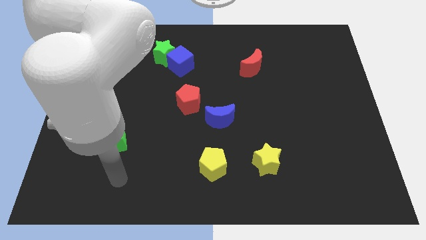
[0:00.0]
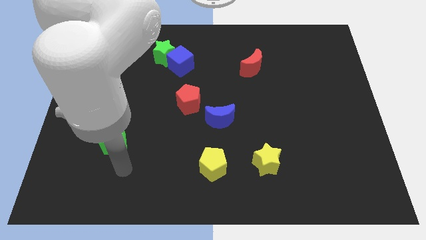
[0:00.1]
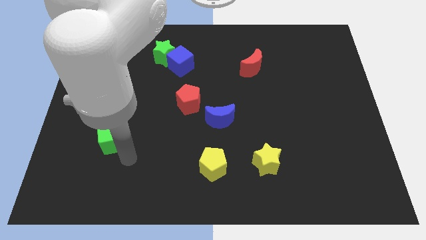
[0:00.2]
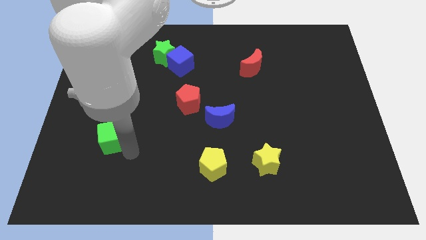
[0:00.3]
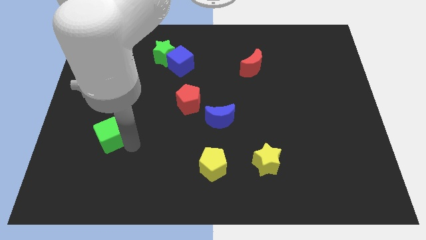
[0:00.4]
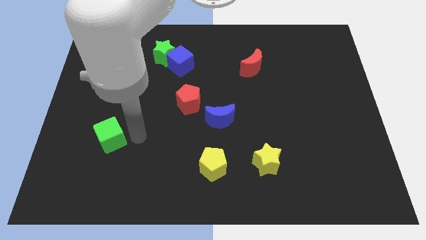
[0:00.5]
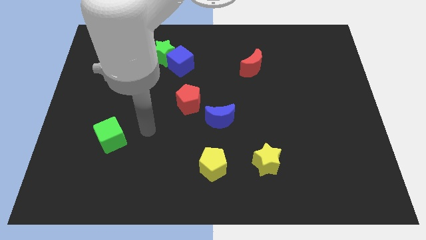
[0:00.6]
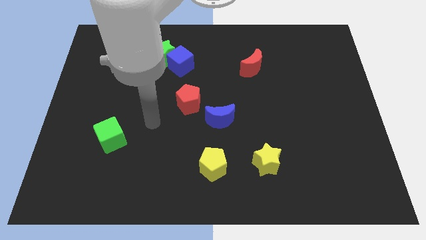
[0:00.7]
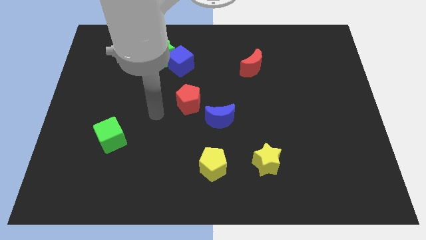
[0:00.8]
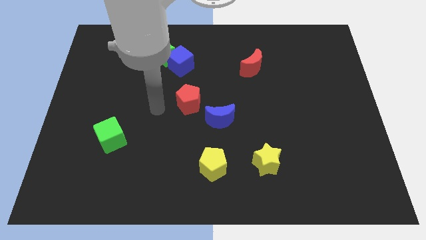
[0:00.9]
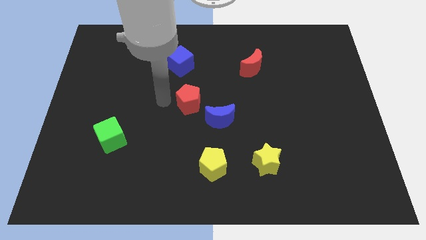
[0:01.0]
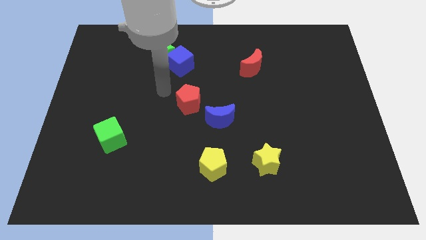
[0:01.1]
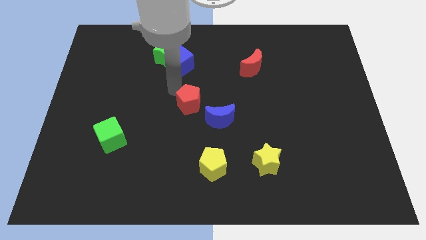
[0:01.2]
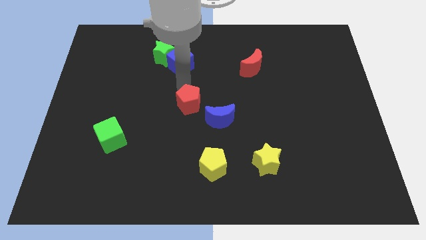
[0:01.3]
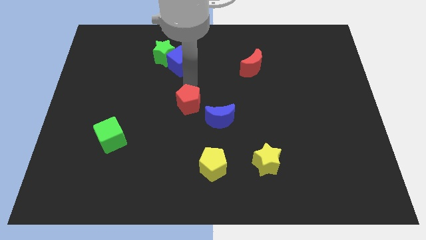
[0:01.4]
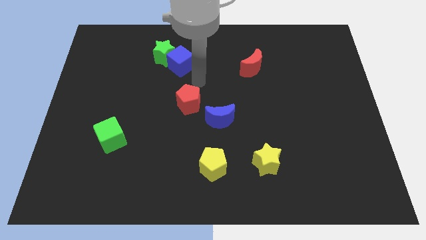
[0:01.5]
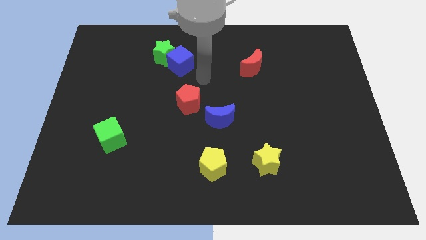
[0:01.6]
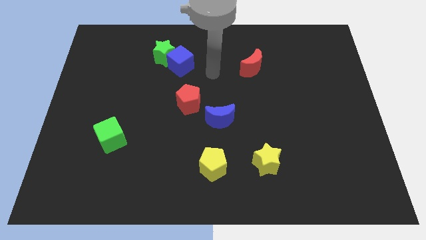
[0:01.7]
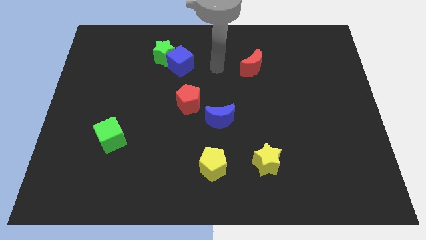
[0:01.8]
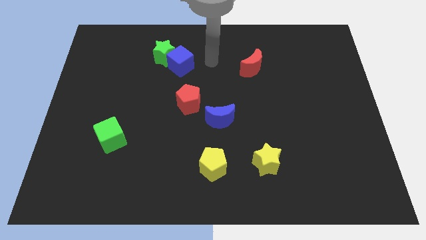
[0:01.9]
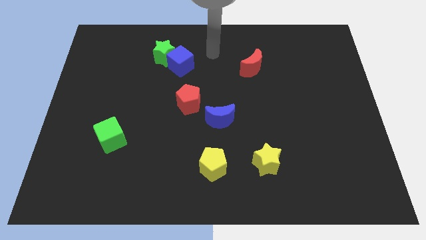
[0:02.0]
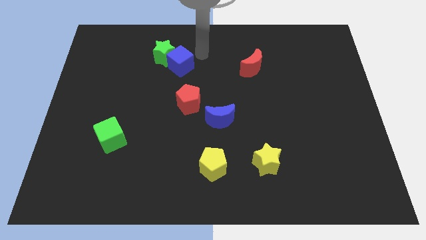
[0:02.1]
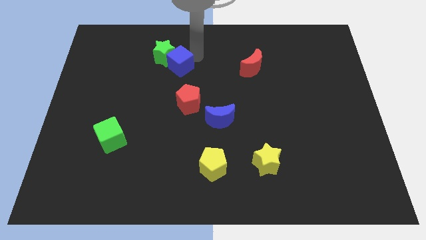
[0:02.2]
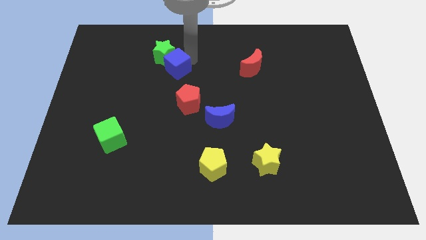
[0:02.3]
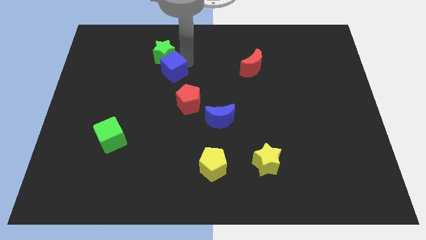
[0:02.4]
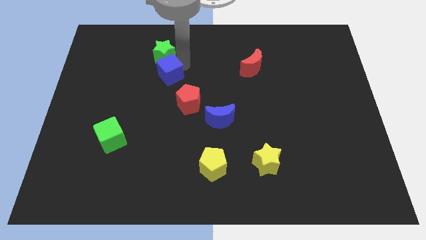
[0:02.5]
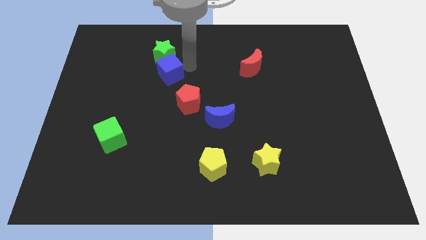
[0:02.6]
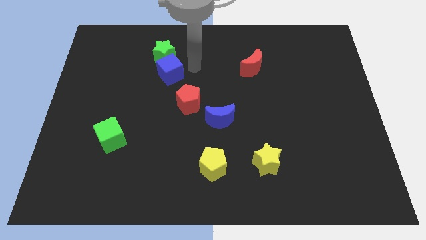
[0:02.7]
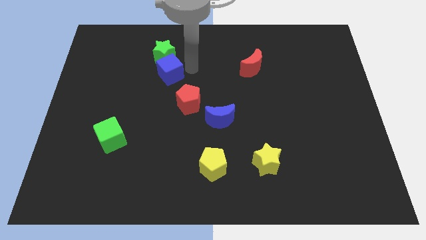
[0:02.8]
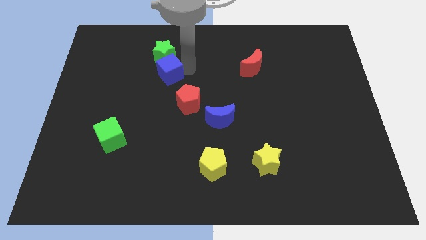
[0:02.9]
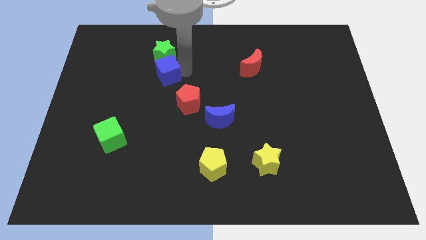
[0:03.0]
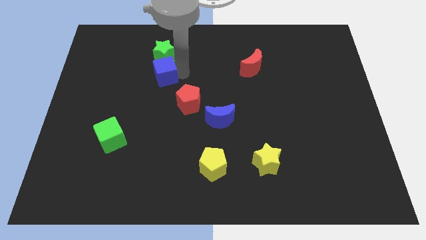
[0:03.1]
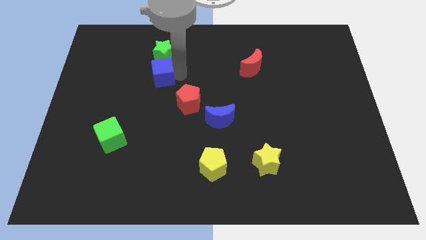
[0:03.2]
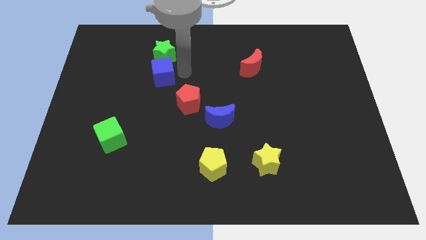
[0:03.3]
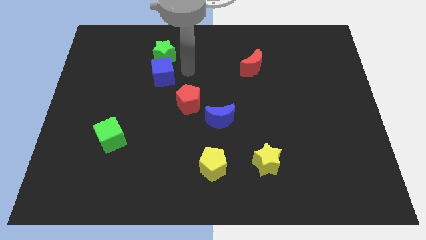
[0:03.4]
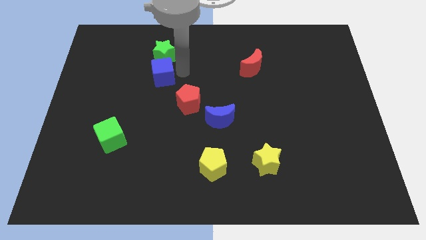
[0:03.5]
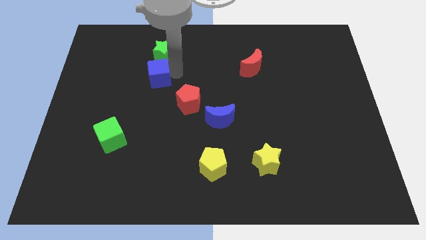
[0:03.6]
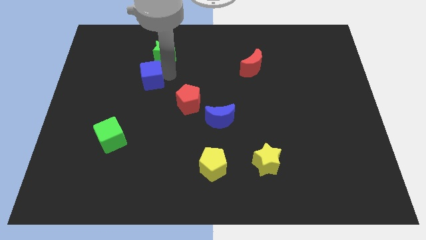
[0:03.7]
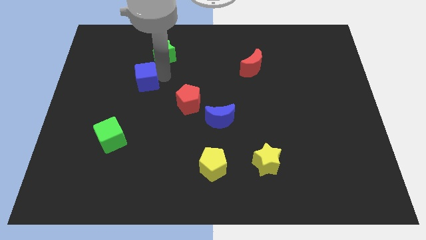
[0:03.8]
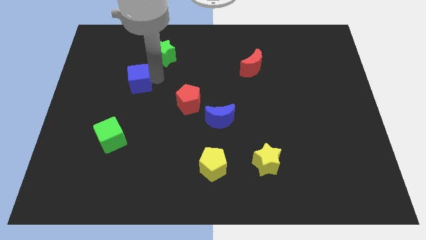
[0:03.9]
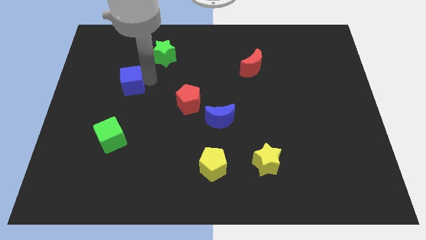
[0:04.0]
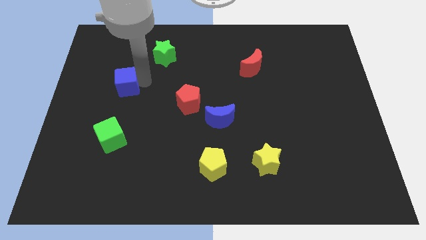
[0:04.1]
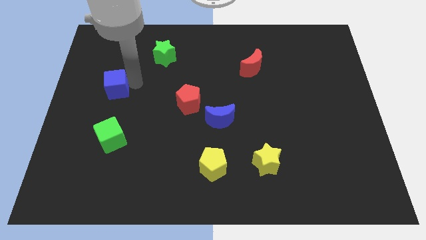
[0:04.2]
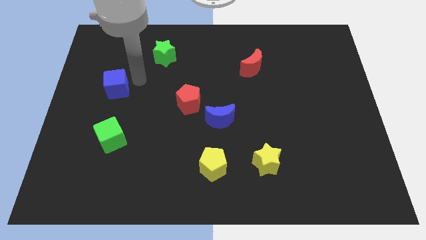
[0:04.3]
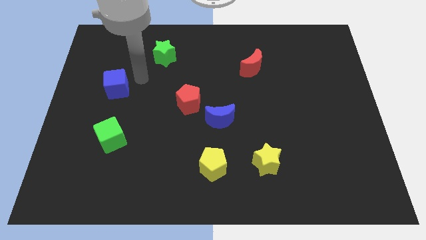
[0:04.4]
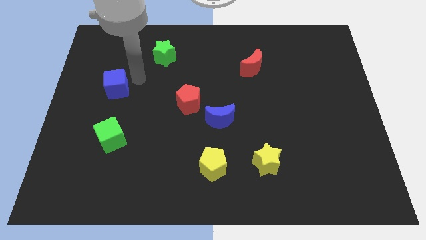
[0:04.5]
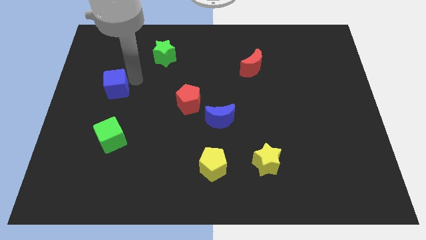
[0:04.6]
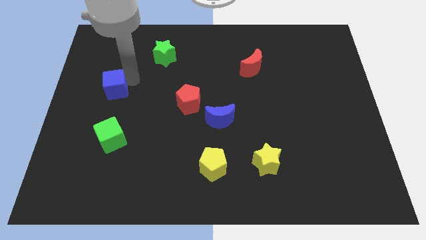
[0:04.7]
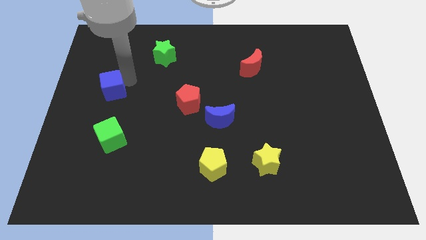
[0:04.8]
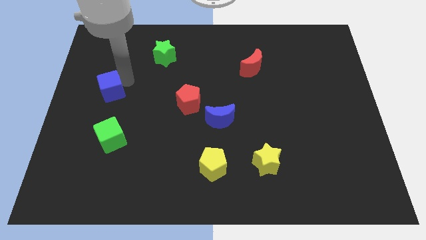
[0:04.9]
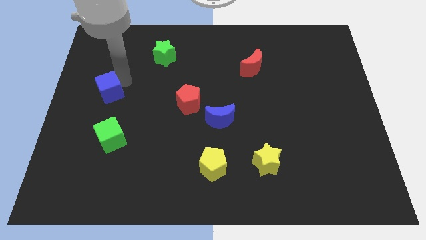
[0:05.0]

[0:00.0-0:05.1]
push the blue cube to the left side

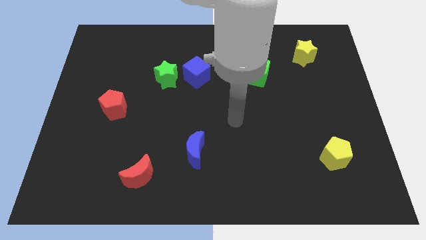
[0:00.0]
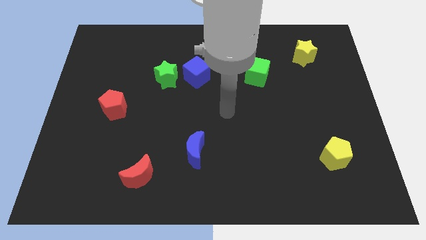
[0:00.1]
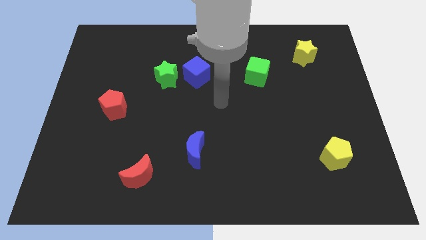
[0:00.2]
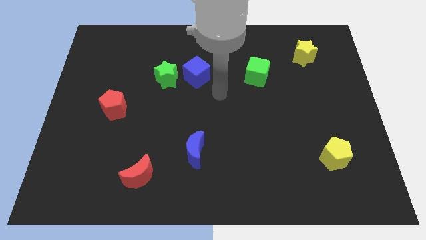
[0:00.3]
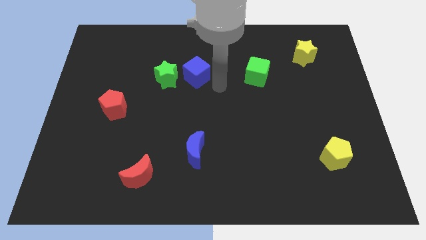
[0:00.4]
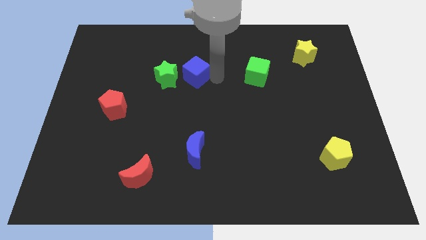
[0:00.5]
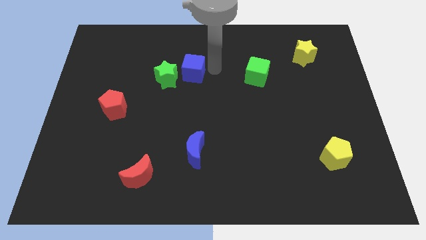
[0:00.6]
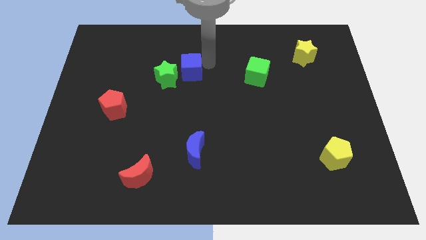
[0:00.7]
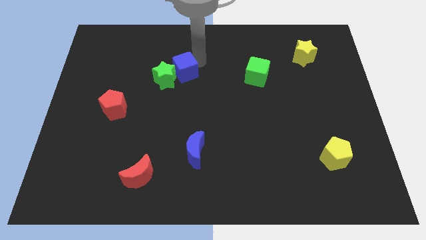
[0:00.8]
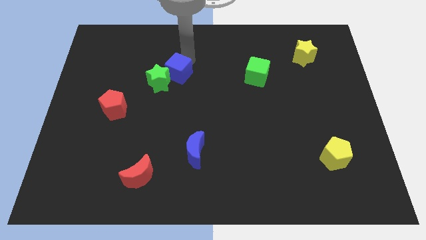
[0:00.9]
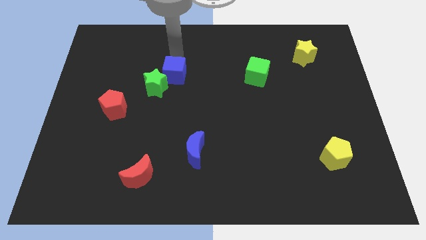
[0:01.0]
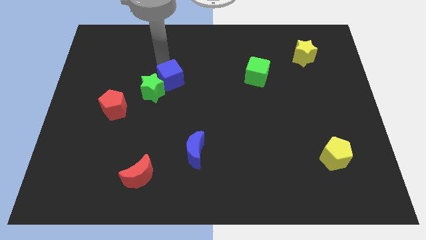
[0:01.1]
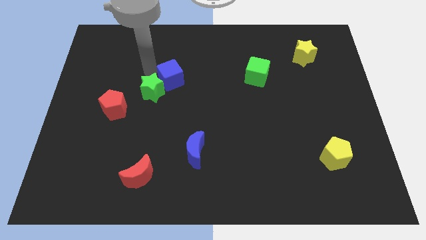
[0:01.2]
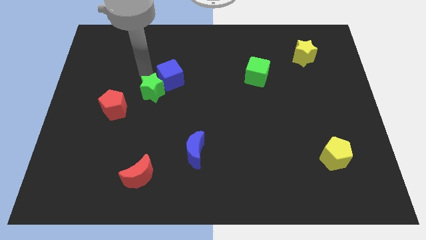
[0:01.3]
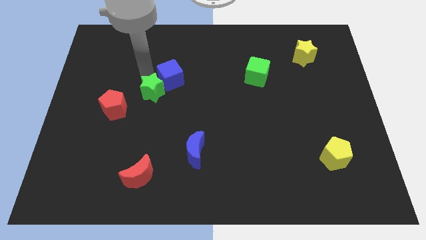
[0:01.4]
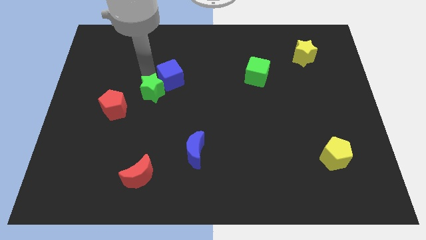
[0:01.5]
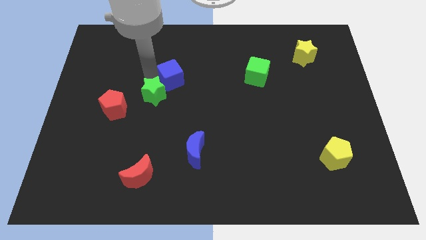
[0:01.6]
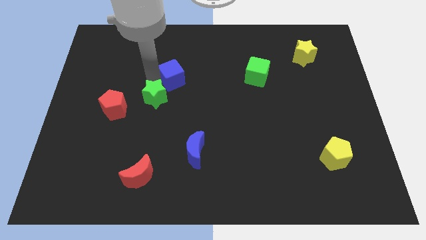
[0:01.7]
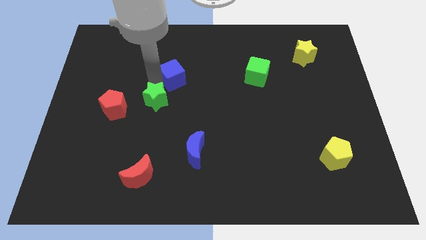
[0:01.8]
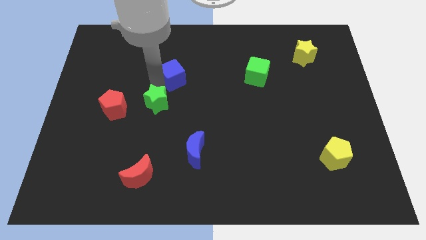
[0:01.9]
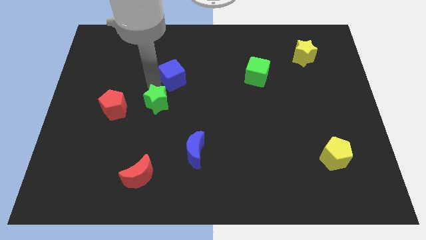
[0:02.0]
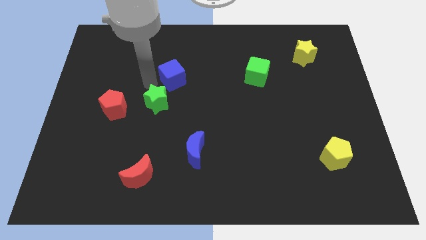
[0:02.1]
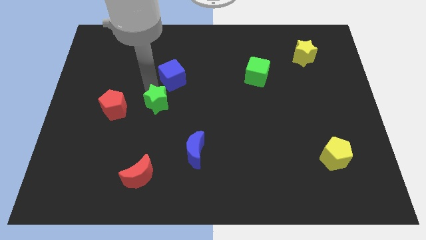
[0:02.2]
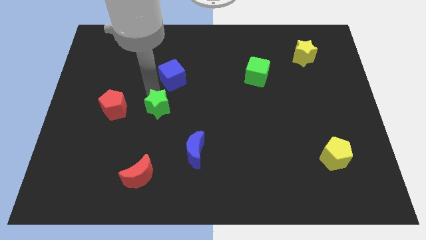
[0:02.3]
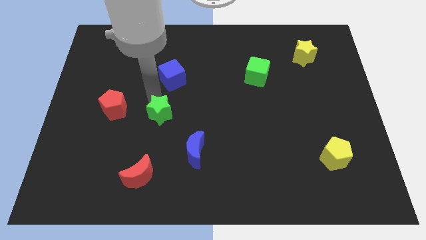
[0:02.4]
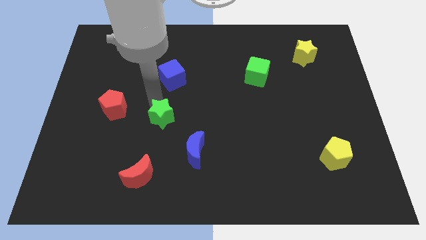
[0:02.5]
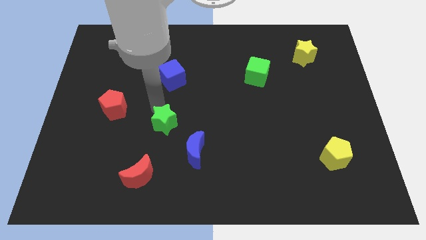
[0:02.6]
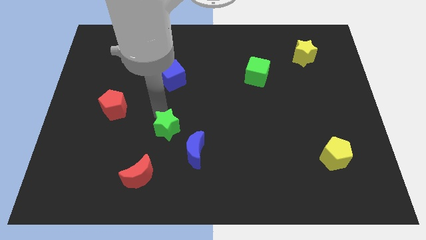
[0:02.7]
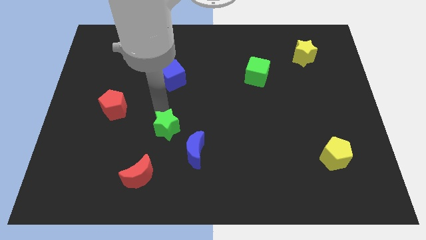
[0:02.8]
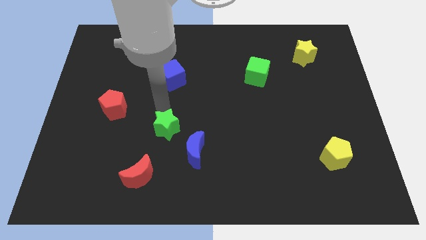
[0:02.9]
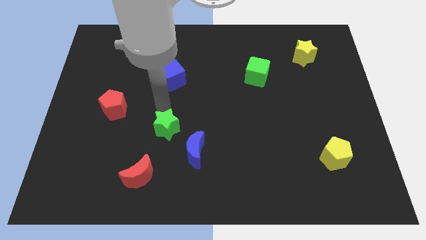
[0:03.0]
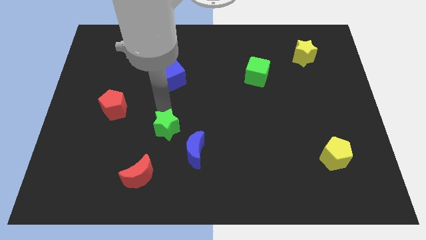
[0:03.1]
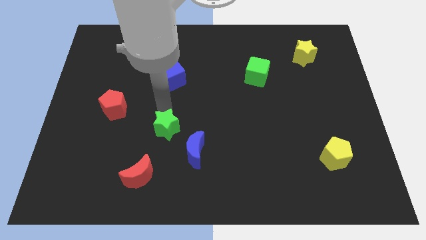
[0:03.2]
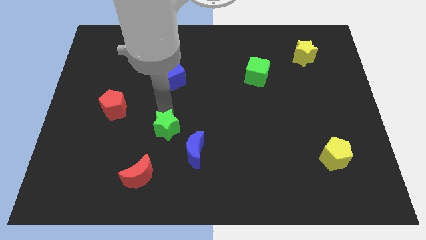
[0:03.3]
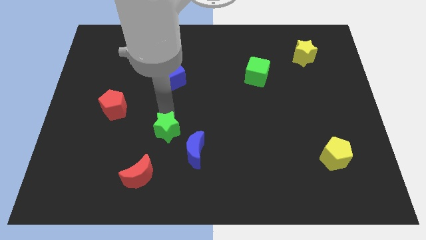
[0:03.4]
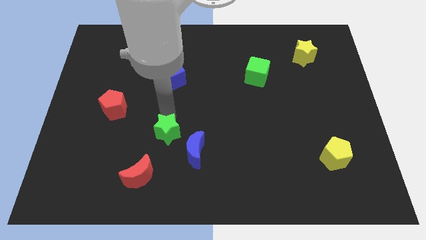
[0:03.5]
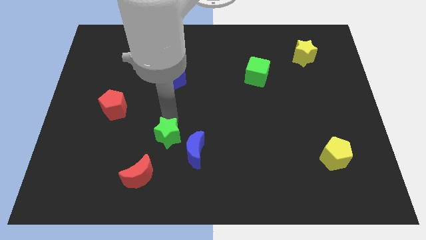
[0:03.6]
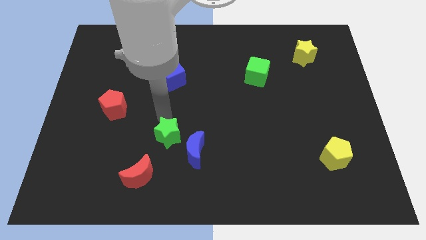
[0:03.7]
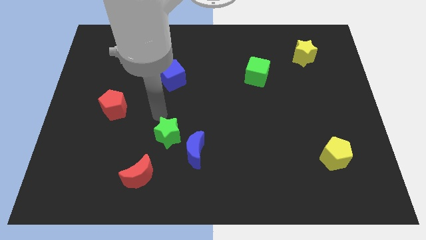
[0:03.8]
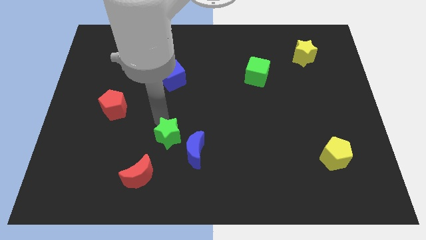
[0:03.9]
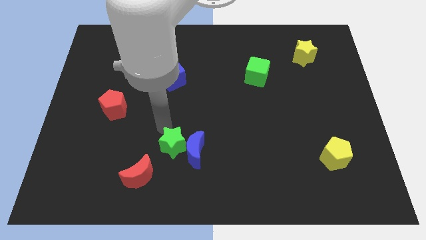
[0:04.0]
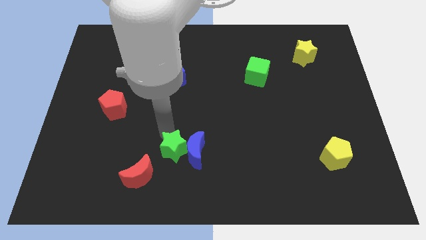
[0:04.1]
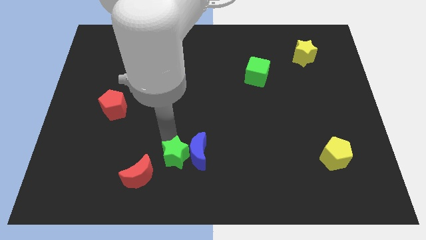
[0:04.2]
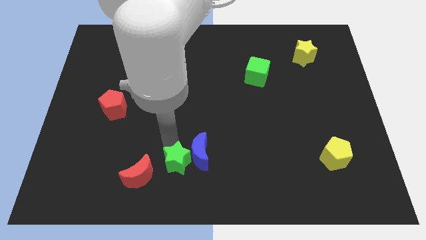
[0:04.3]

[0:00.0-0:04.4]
put the green star to the bottom side
